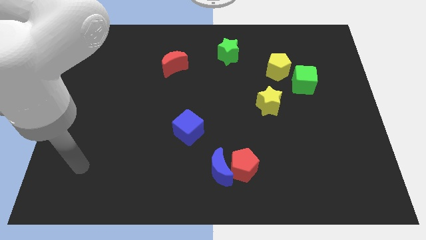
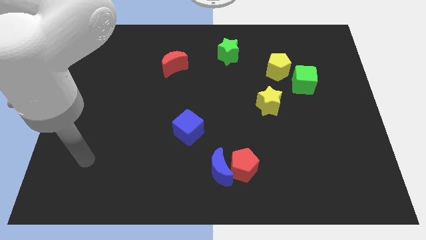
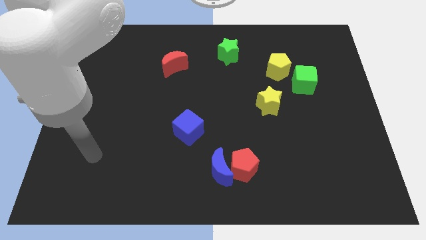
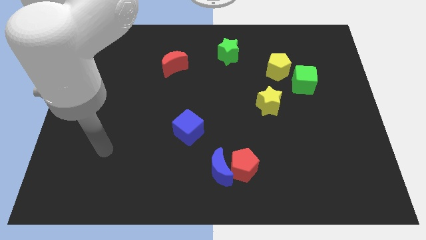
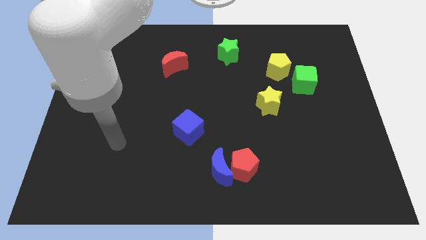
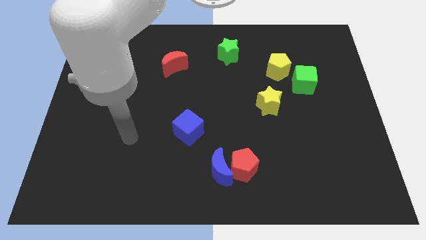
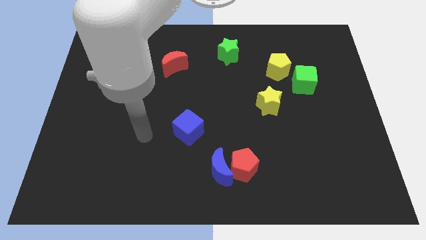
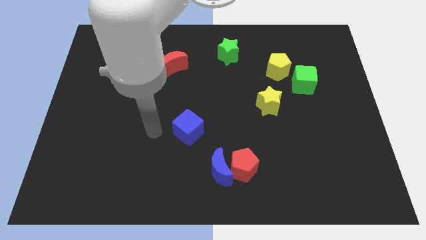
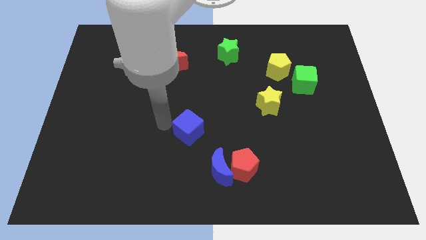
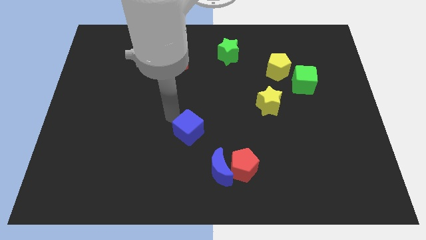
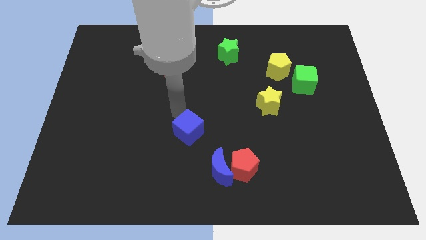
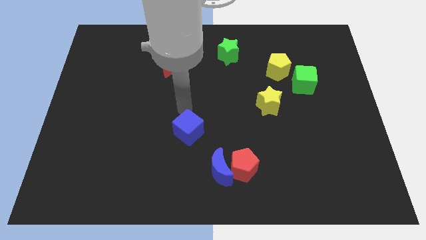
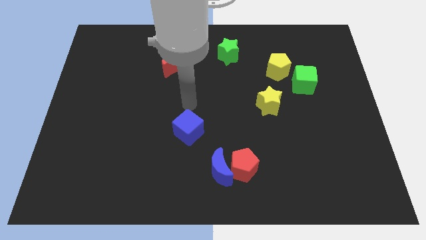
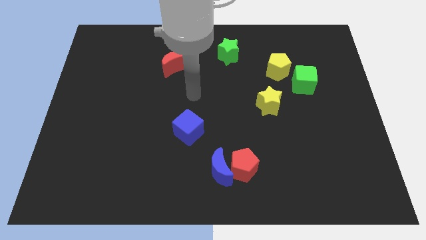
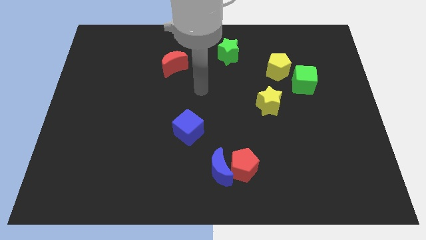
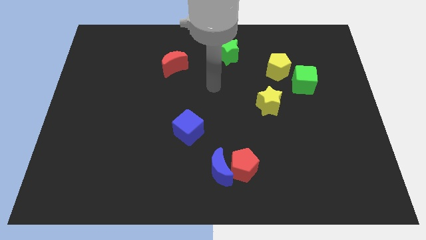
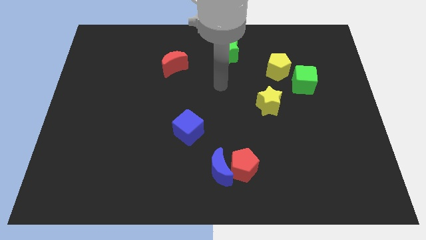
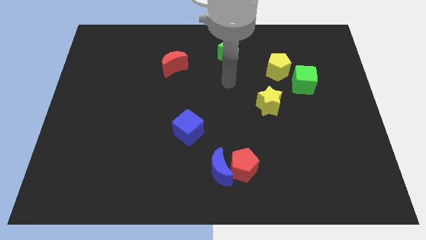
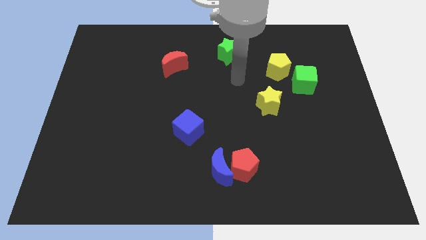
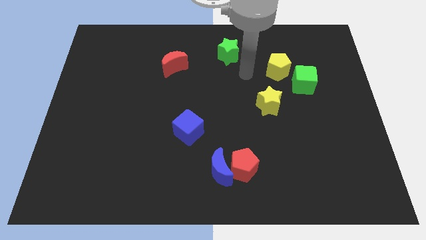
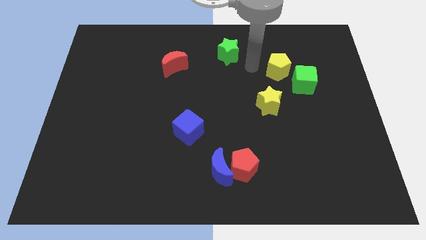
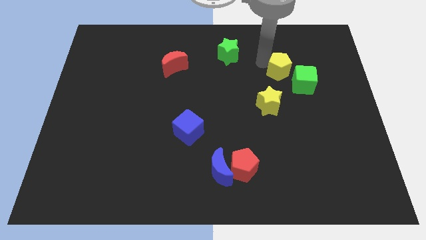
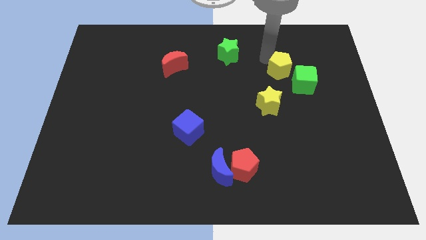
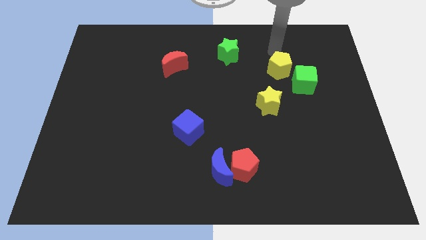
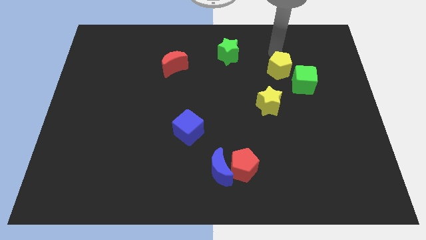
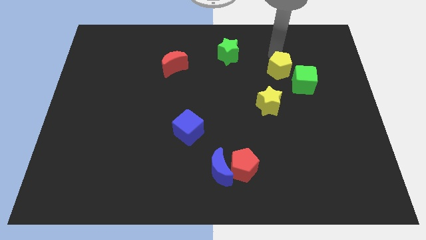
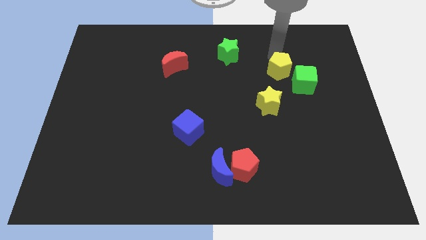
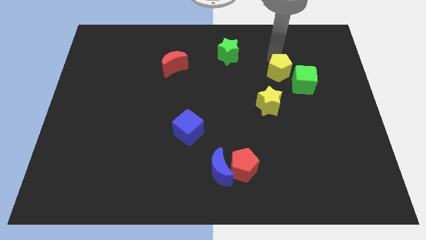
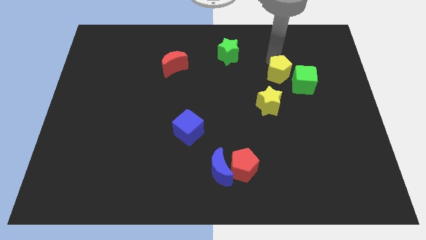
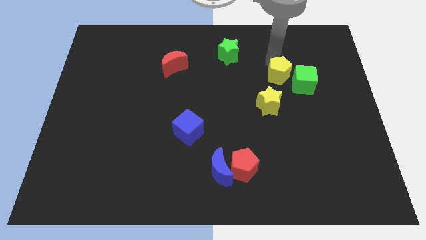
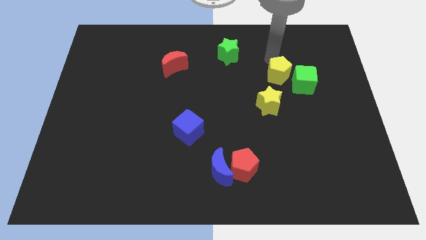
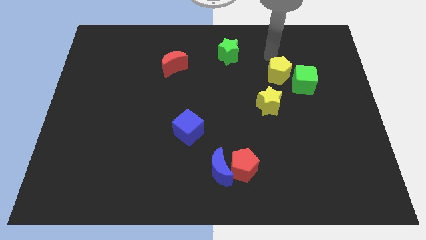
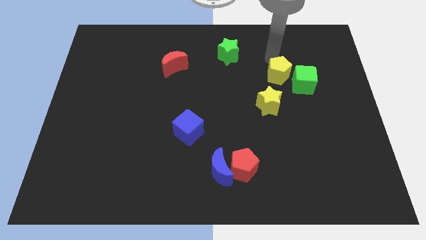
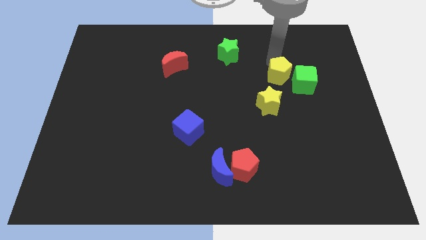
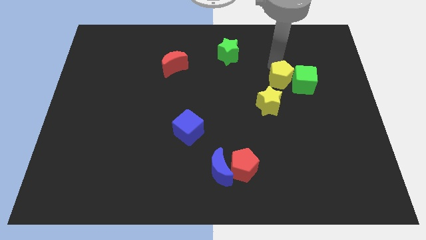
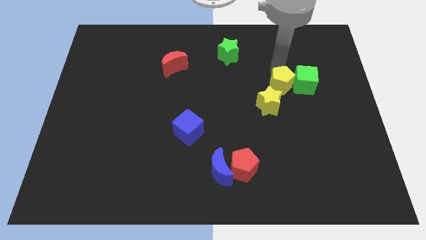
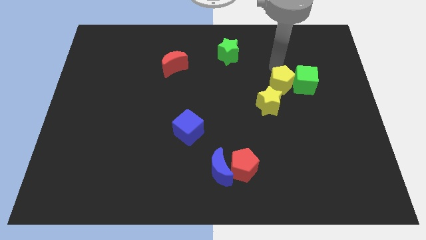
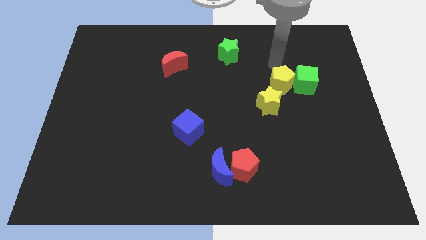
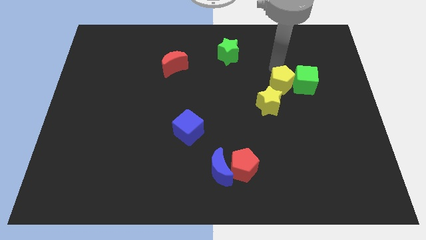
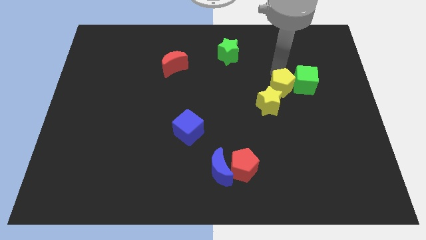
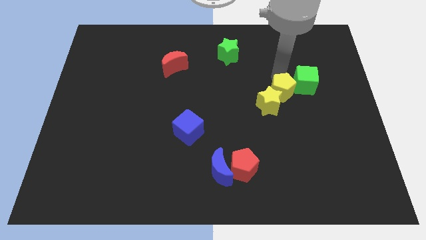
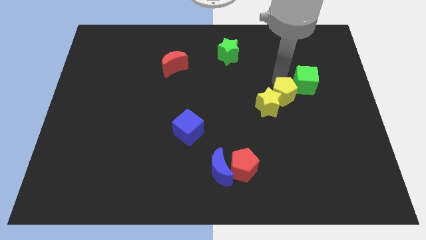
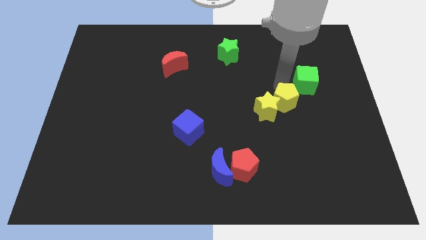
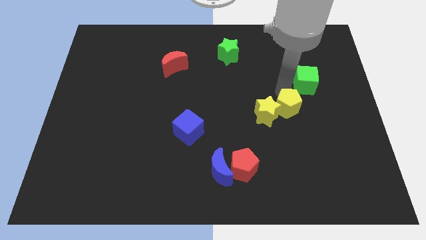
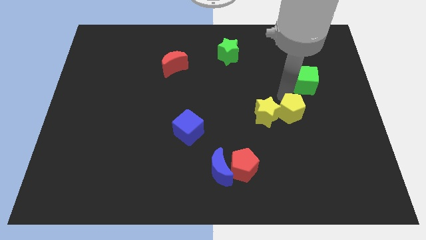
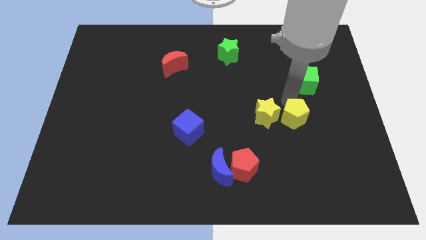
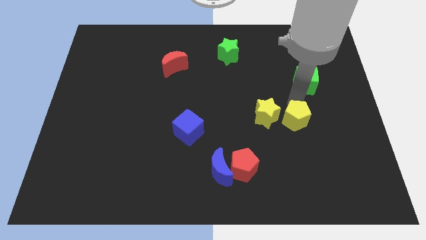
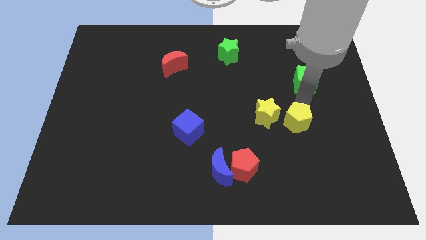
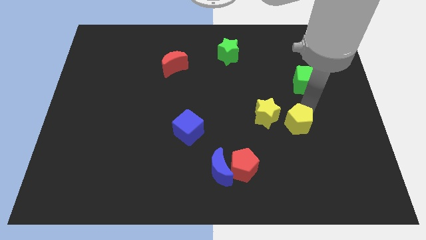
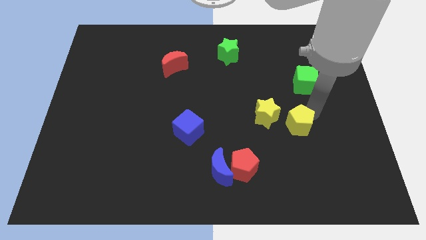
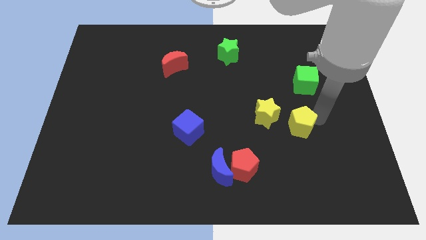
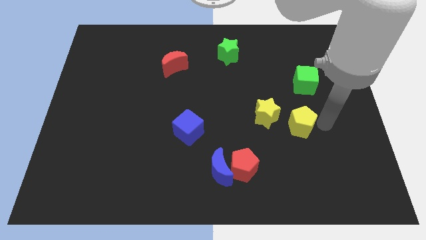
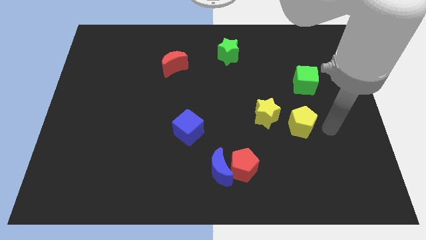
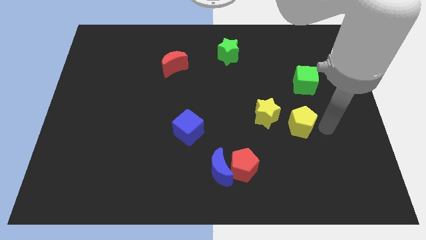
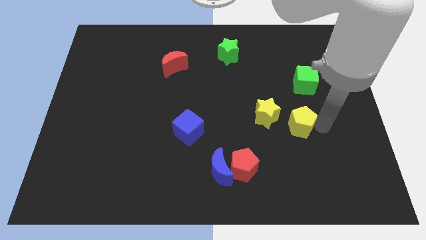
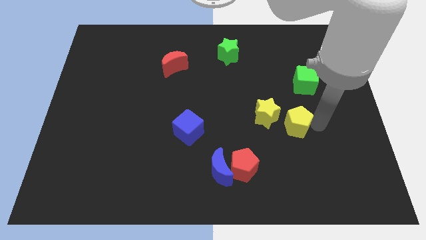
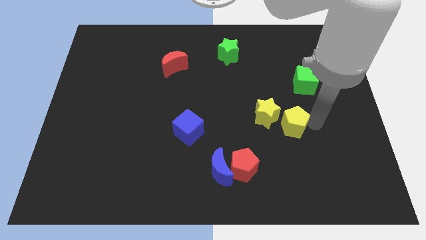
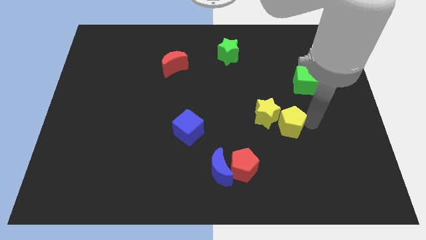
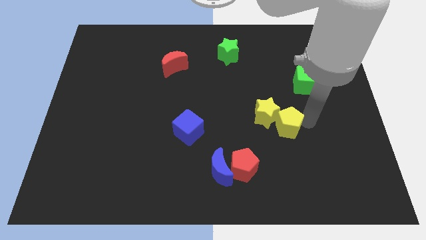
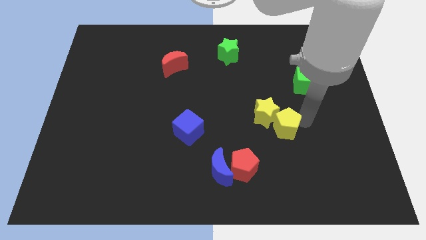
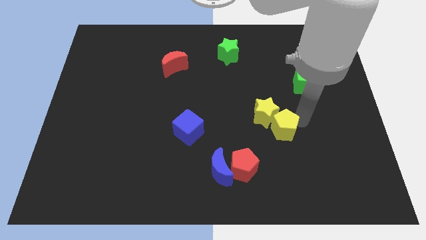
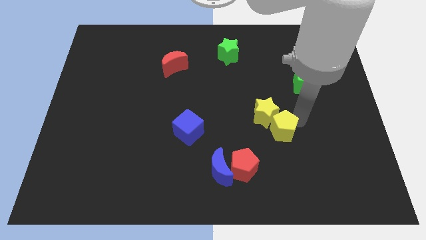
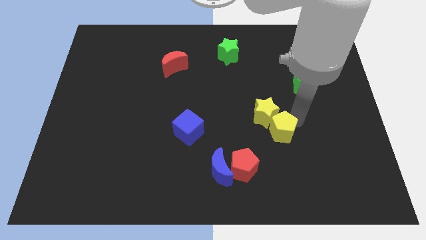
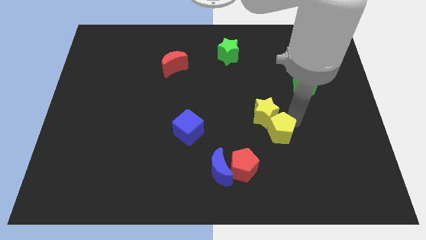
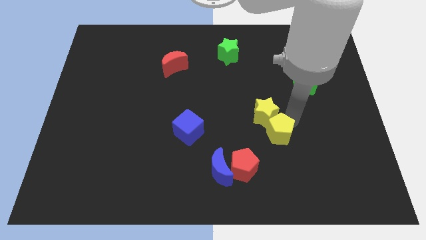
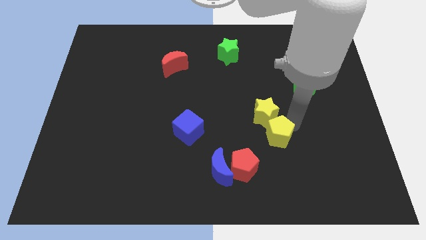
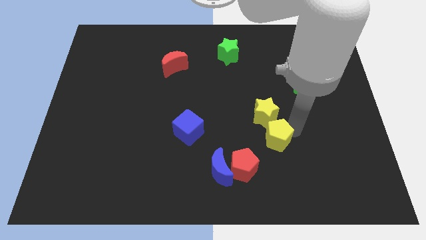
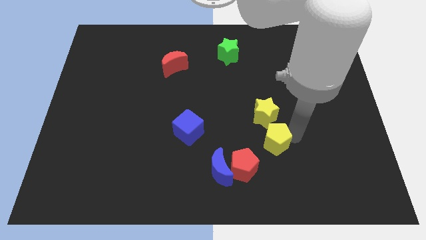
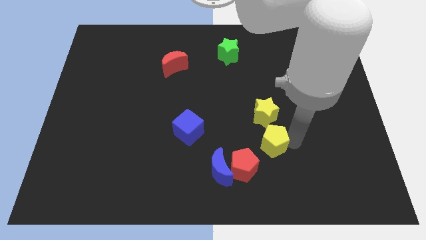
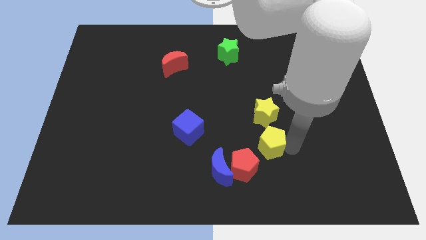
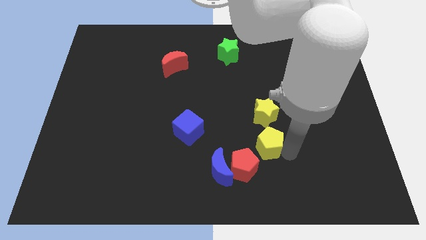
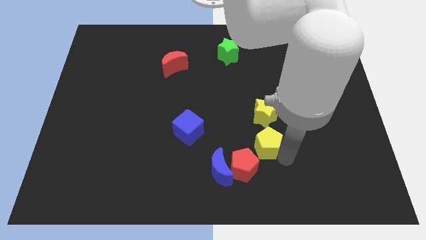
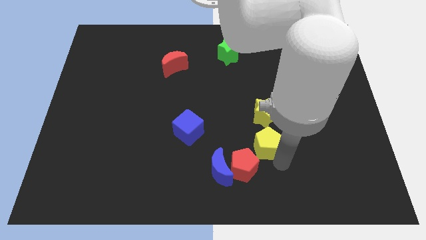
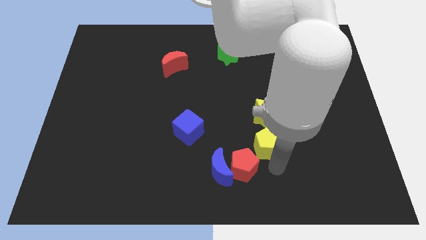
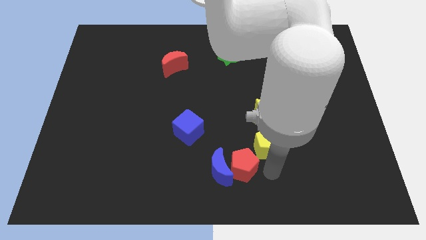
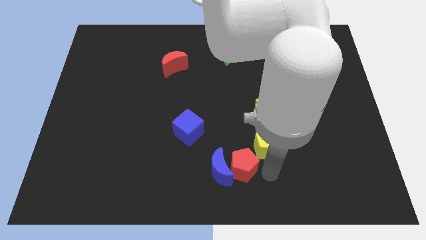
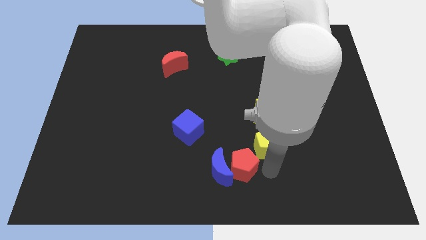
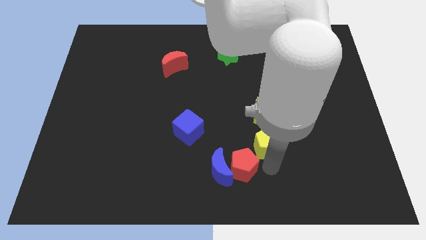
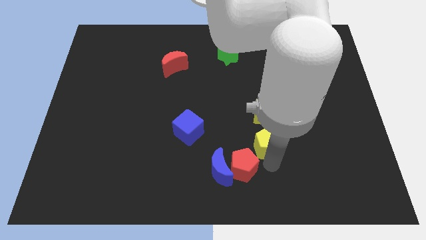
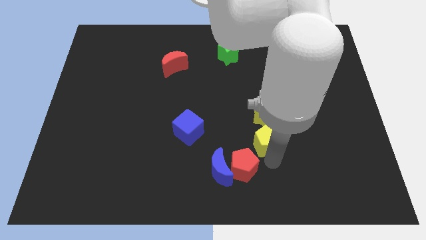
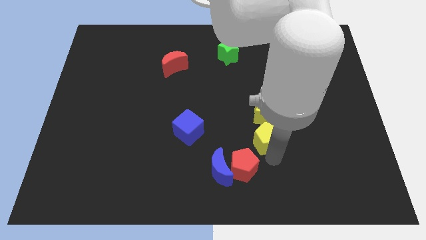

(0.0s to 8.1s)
put the yellow pentagon to the bottom left of the yellow star
